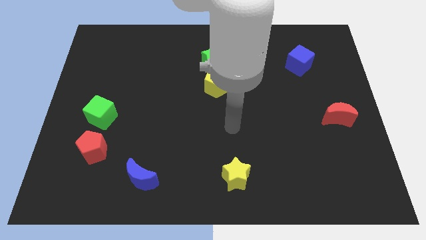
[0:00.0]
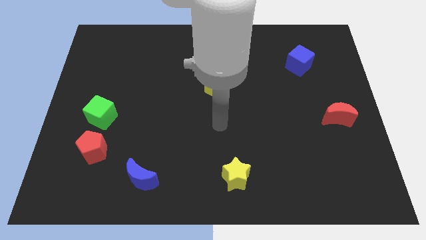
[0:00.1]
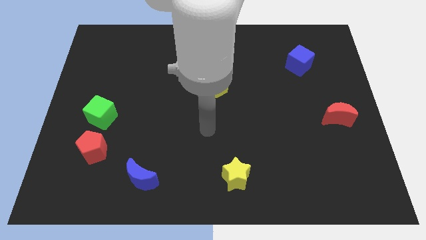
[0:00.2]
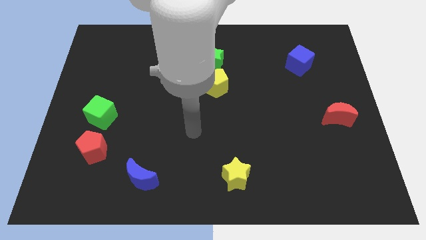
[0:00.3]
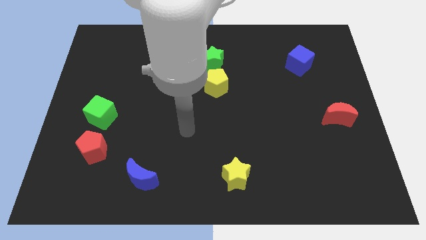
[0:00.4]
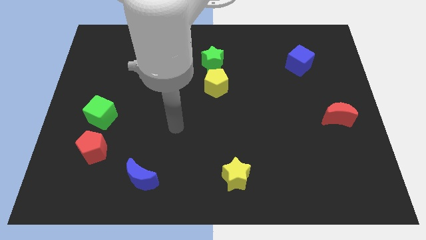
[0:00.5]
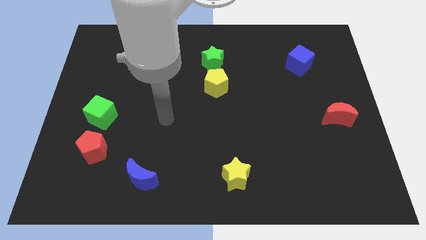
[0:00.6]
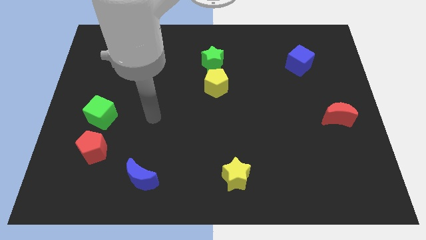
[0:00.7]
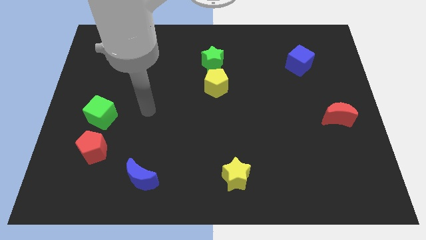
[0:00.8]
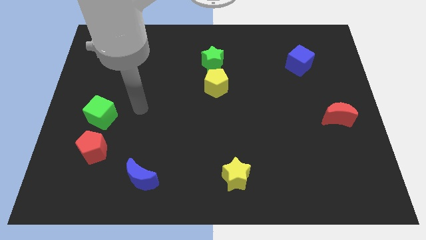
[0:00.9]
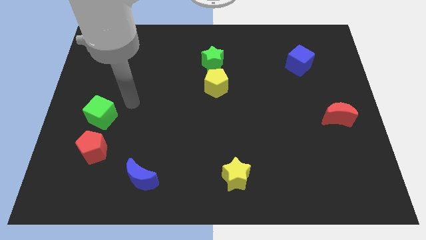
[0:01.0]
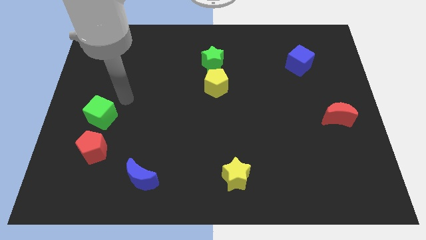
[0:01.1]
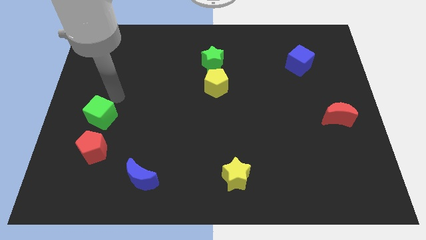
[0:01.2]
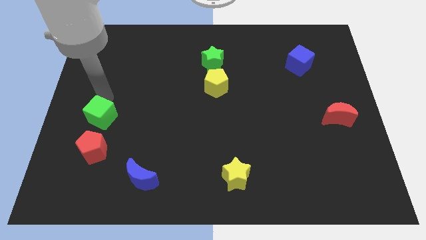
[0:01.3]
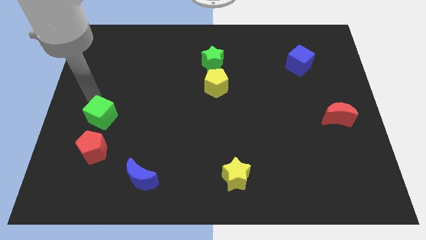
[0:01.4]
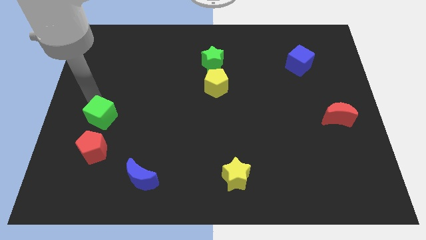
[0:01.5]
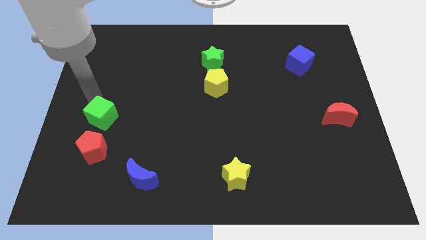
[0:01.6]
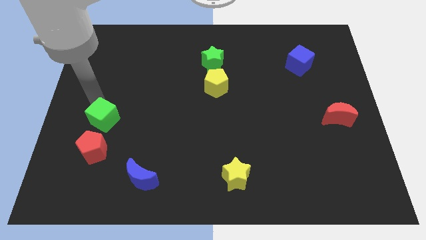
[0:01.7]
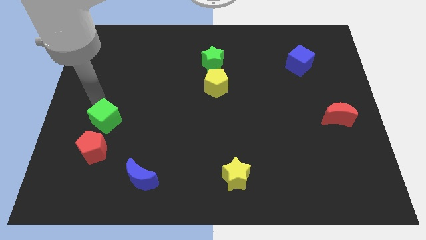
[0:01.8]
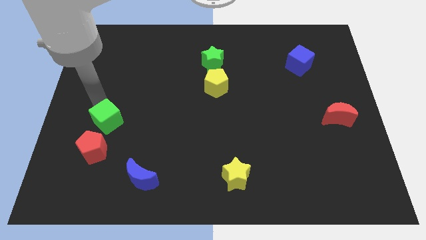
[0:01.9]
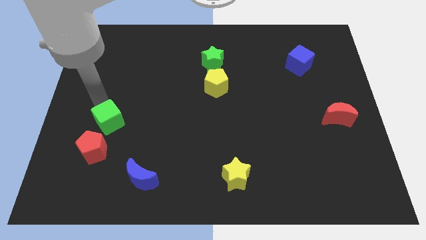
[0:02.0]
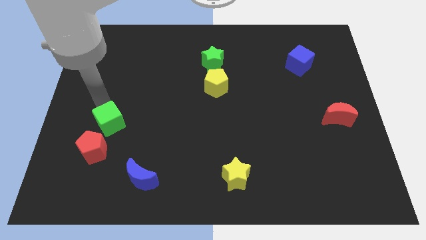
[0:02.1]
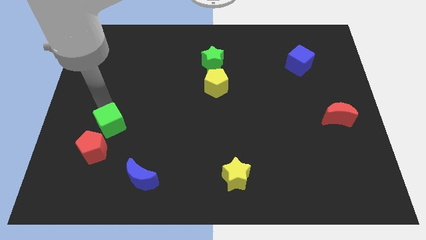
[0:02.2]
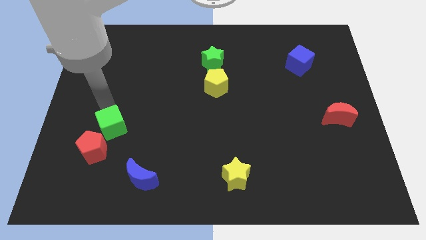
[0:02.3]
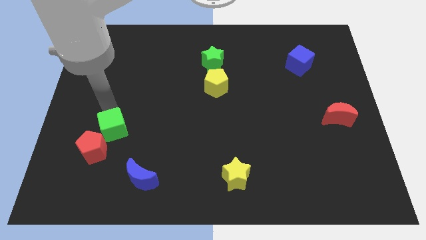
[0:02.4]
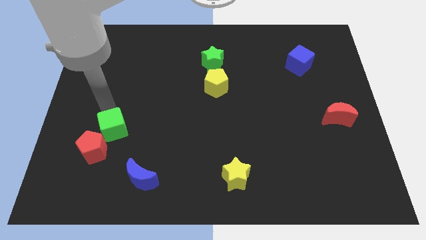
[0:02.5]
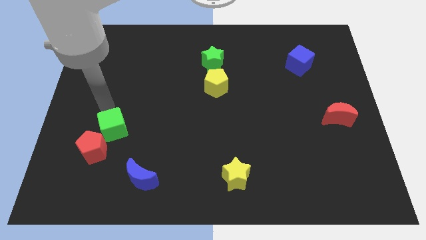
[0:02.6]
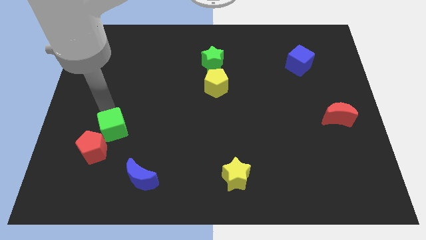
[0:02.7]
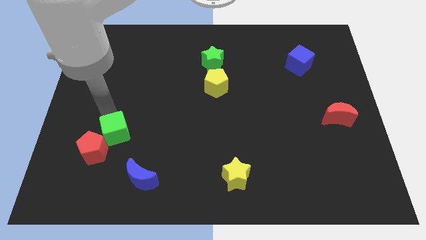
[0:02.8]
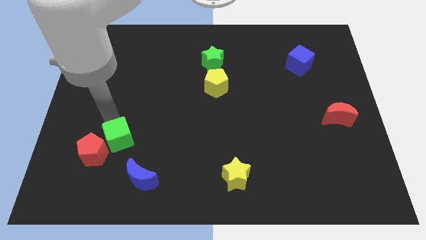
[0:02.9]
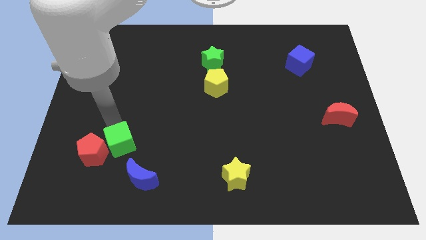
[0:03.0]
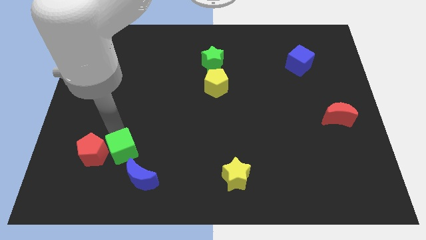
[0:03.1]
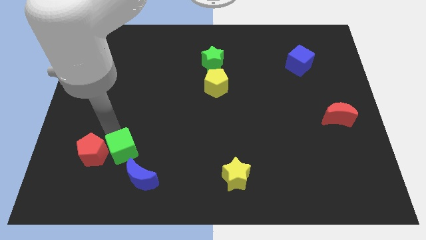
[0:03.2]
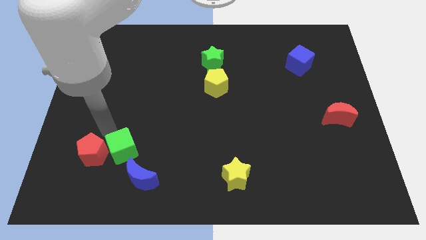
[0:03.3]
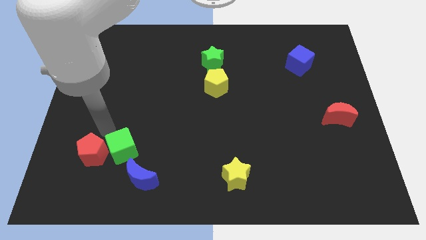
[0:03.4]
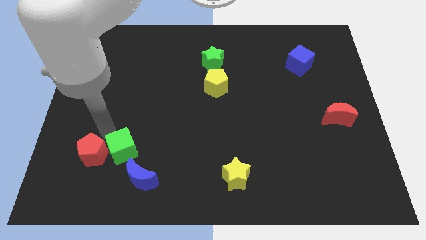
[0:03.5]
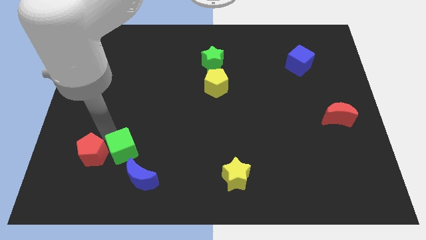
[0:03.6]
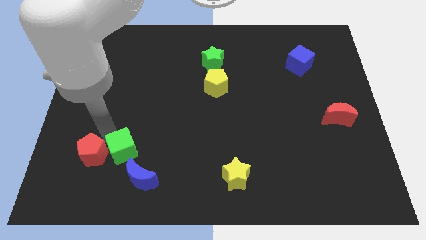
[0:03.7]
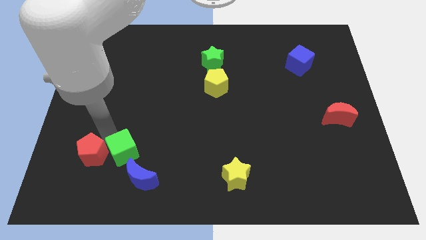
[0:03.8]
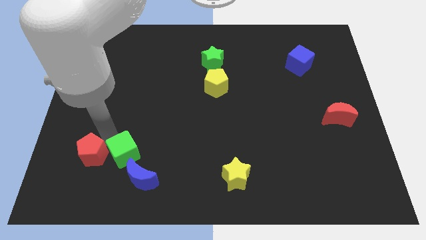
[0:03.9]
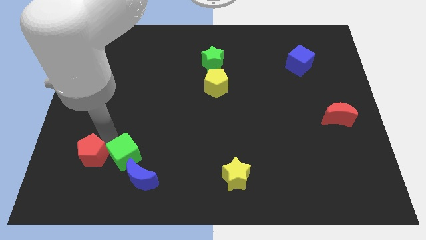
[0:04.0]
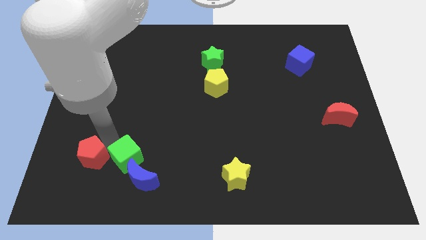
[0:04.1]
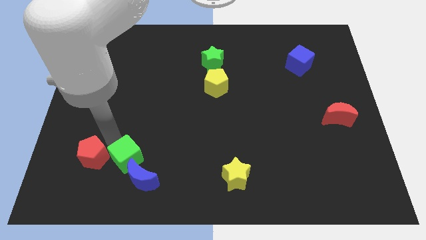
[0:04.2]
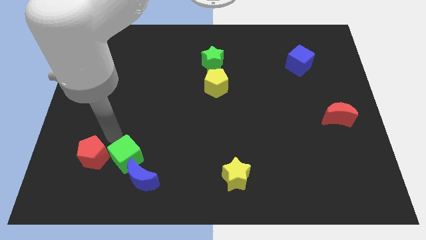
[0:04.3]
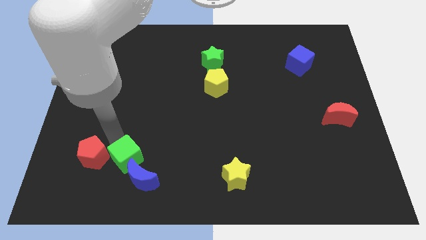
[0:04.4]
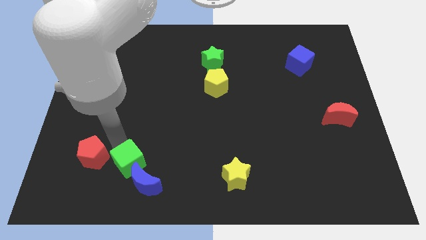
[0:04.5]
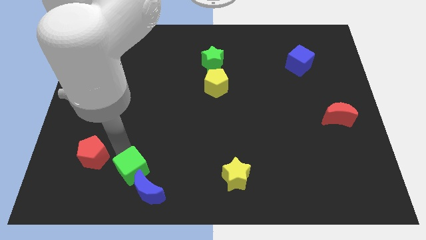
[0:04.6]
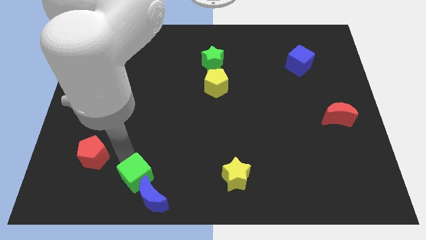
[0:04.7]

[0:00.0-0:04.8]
slide the green cube to the blue moon

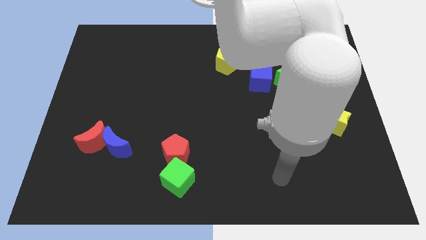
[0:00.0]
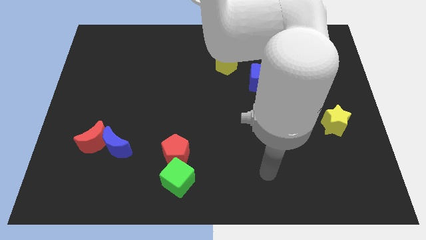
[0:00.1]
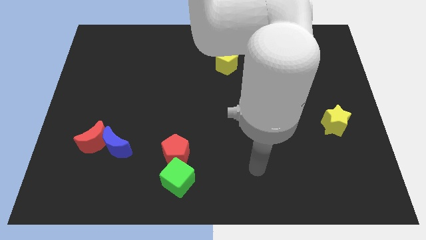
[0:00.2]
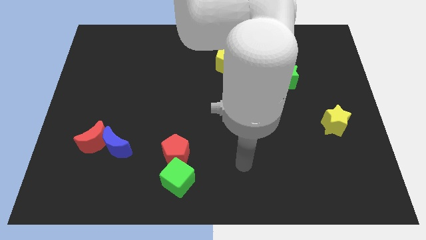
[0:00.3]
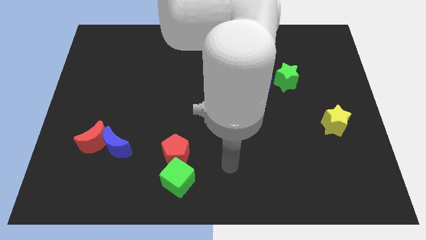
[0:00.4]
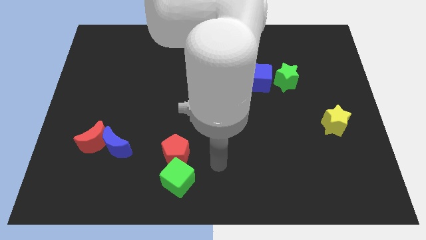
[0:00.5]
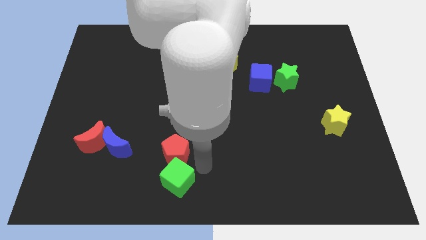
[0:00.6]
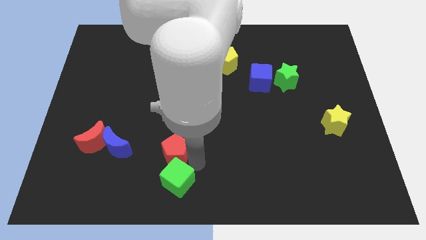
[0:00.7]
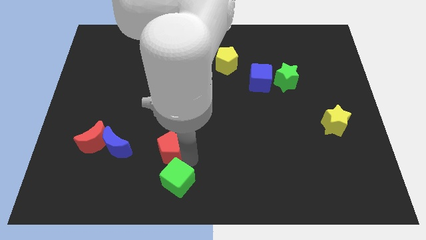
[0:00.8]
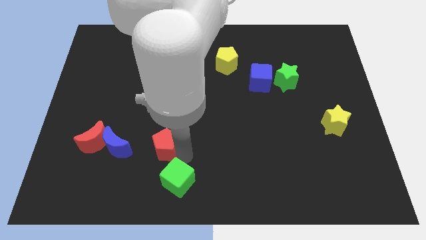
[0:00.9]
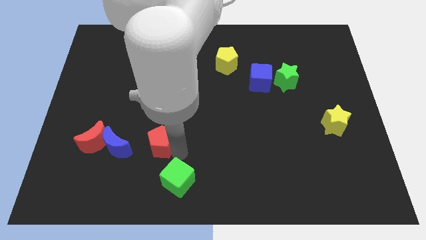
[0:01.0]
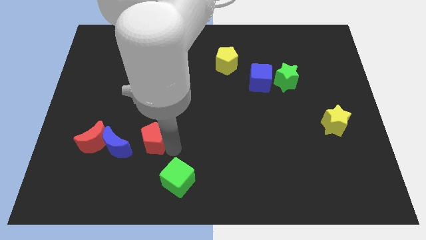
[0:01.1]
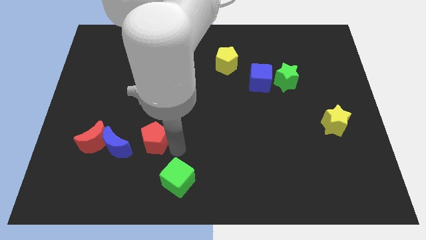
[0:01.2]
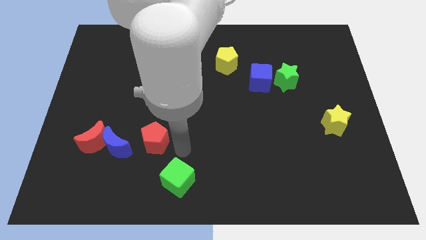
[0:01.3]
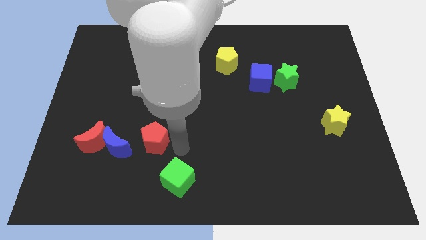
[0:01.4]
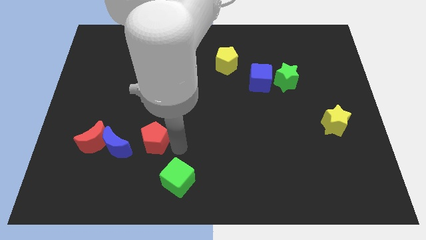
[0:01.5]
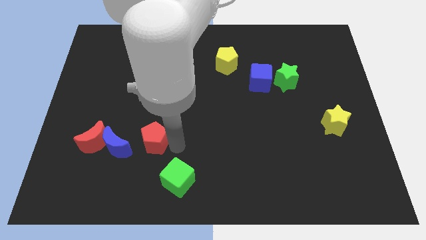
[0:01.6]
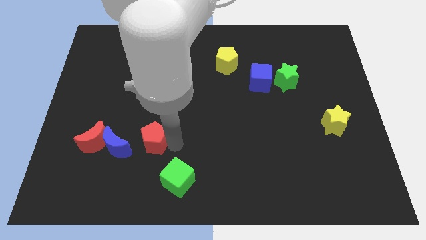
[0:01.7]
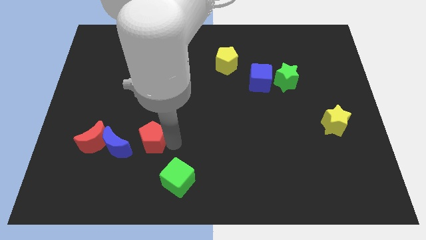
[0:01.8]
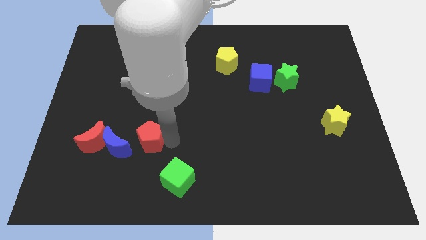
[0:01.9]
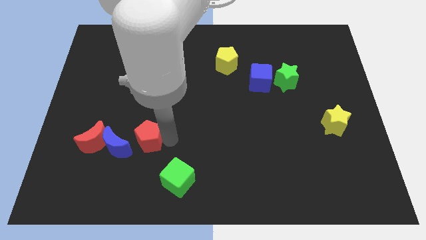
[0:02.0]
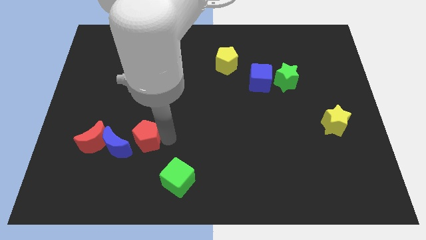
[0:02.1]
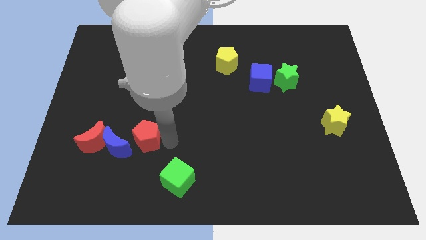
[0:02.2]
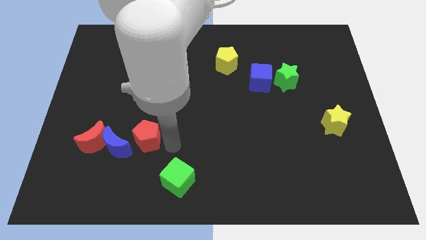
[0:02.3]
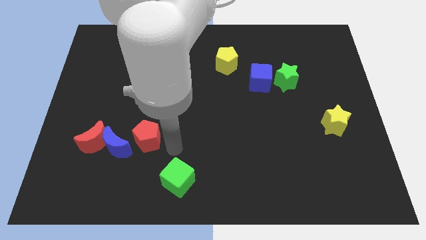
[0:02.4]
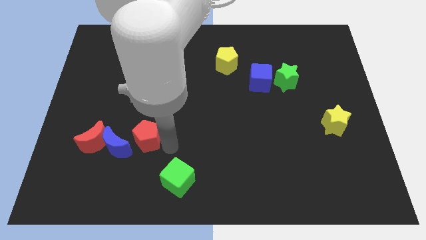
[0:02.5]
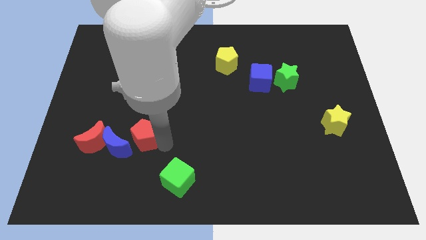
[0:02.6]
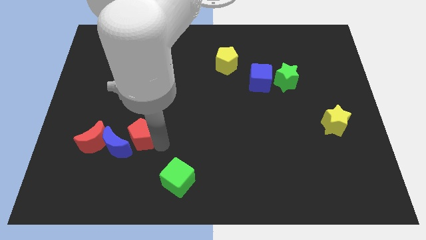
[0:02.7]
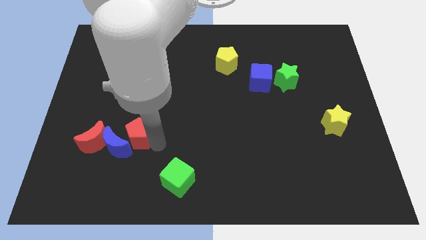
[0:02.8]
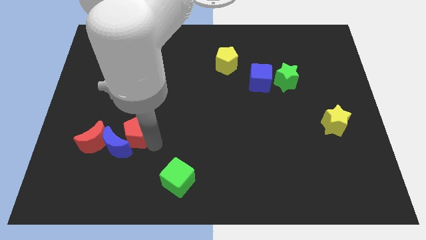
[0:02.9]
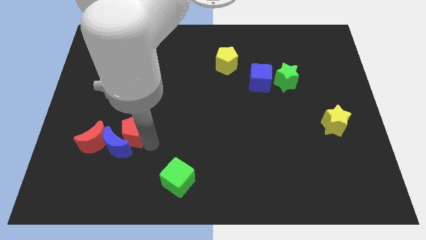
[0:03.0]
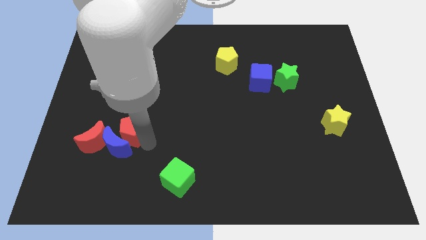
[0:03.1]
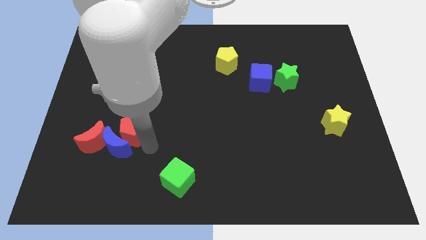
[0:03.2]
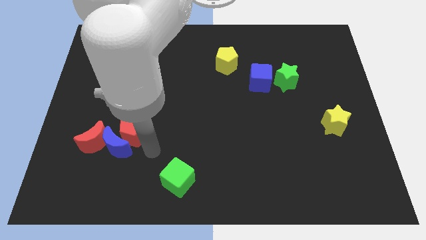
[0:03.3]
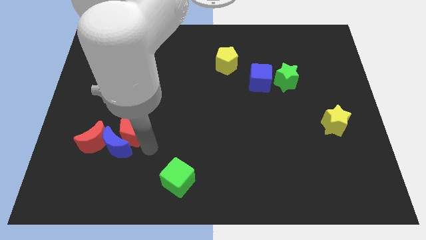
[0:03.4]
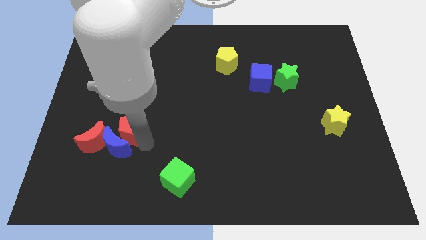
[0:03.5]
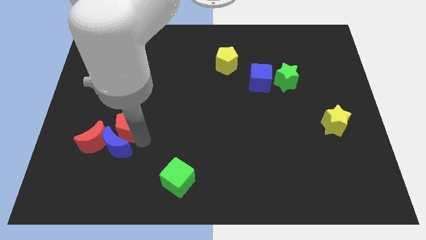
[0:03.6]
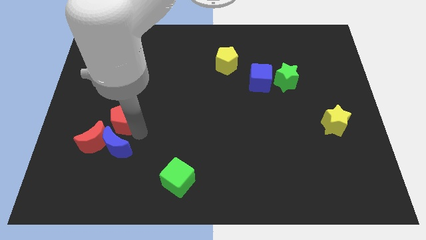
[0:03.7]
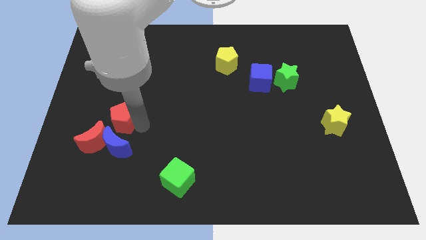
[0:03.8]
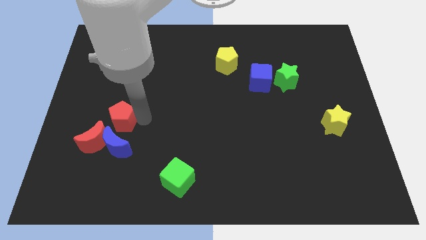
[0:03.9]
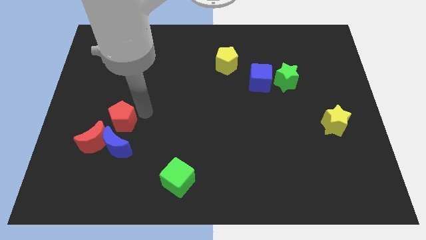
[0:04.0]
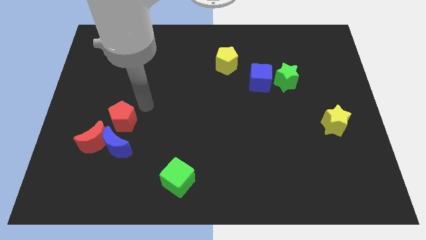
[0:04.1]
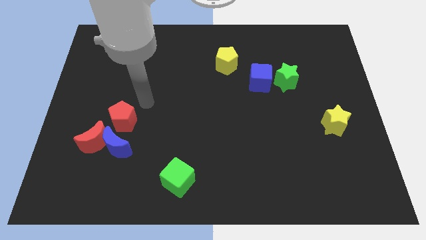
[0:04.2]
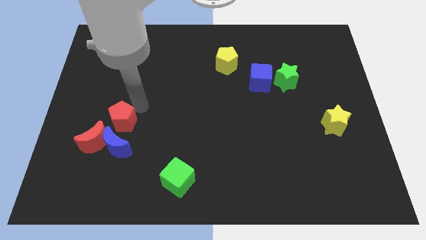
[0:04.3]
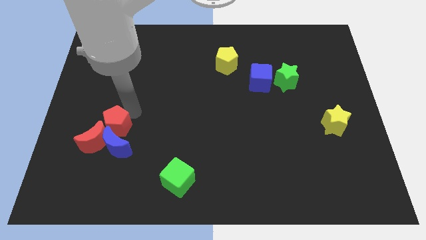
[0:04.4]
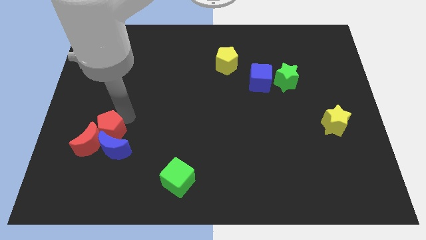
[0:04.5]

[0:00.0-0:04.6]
push the red pentagon close to the red moon
